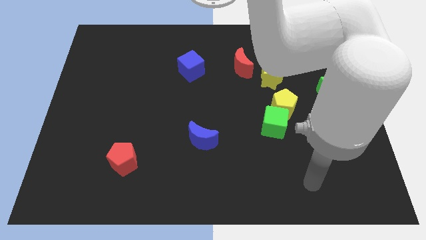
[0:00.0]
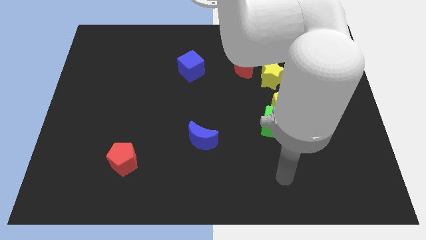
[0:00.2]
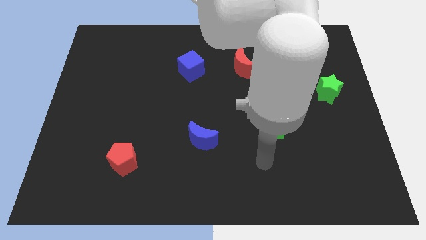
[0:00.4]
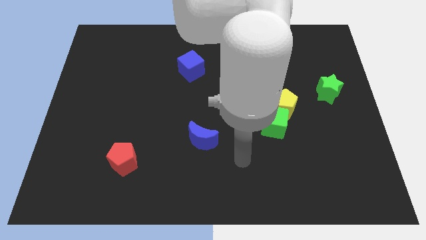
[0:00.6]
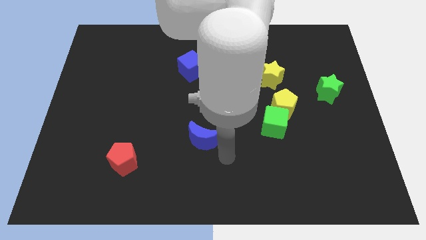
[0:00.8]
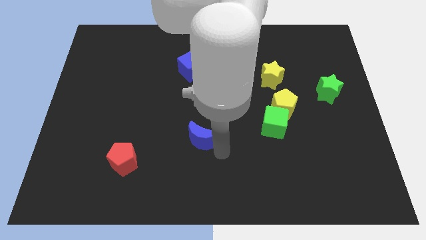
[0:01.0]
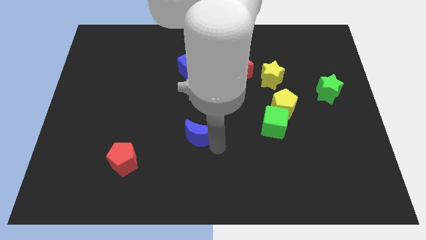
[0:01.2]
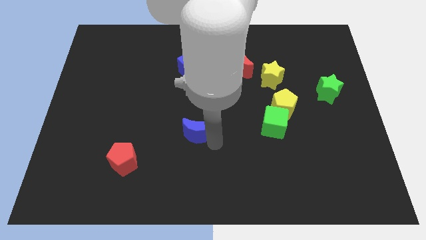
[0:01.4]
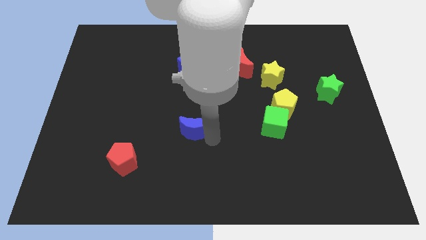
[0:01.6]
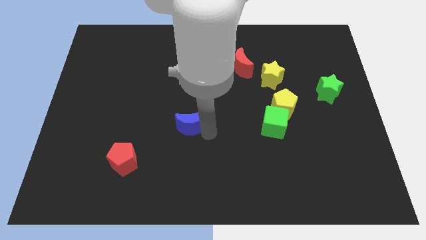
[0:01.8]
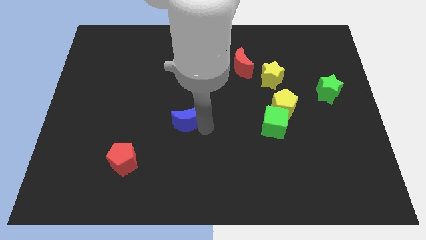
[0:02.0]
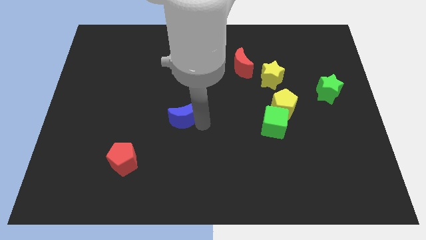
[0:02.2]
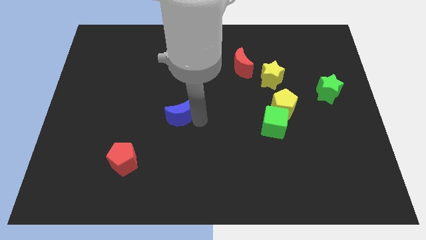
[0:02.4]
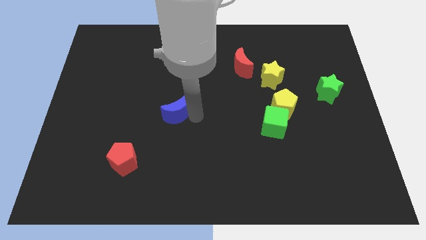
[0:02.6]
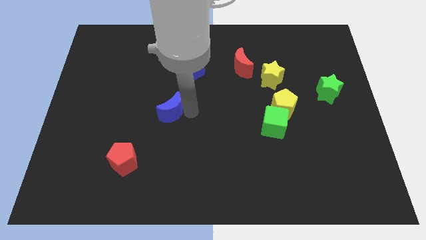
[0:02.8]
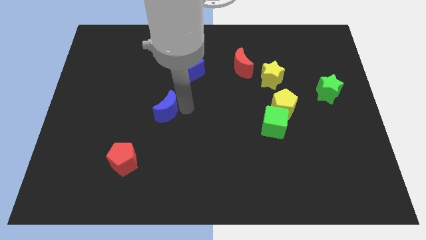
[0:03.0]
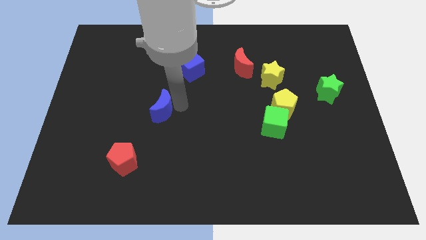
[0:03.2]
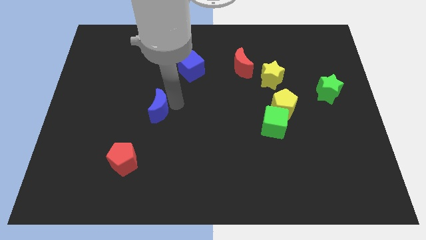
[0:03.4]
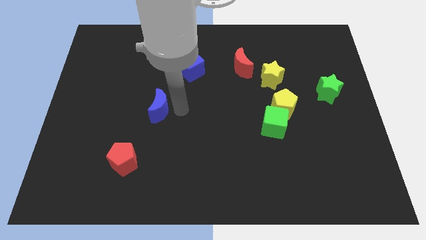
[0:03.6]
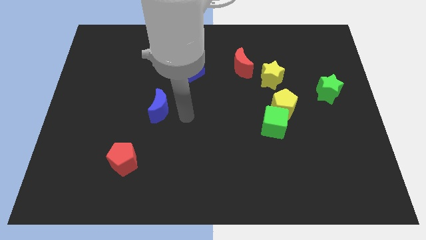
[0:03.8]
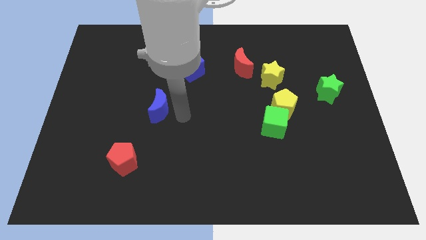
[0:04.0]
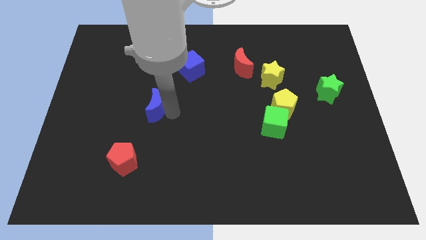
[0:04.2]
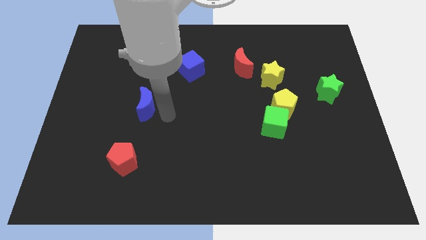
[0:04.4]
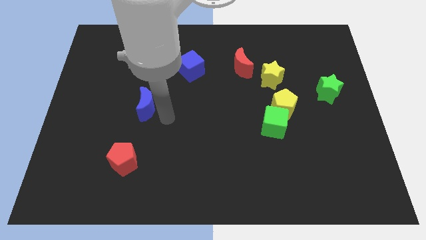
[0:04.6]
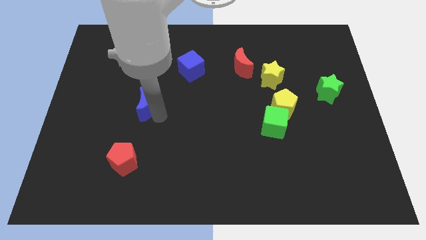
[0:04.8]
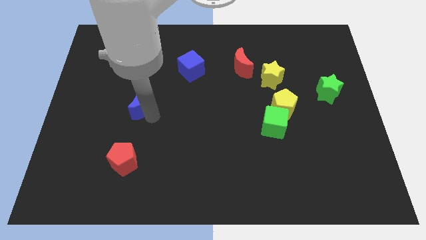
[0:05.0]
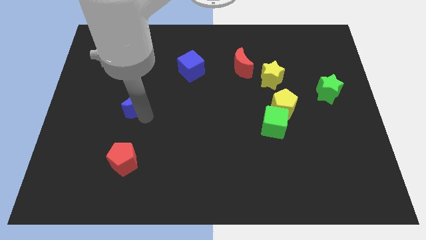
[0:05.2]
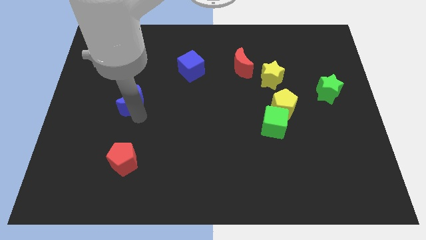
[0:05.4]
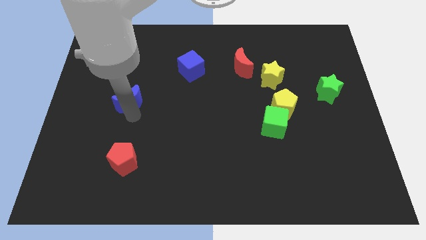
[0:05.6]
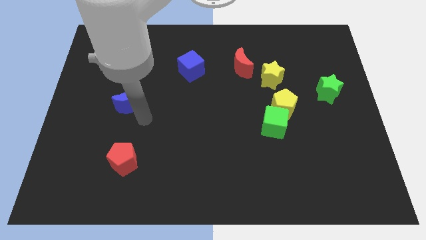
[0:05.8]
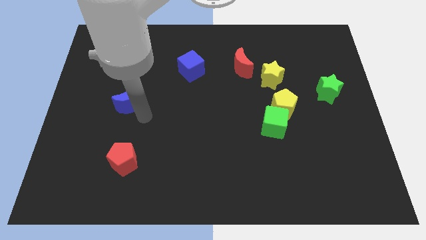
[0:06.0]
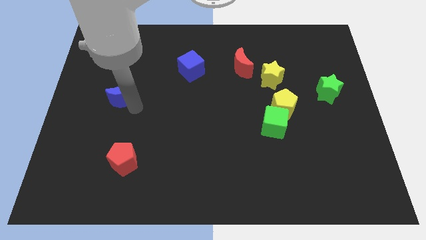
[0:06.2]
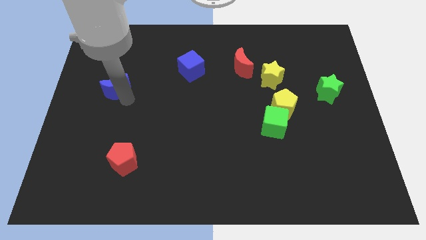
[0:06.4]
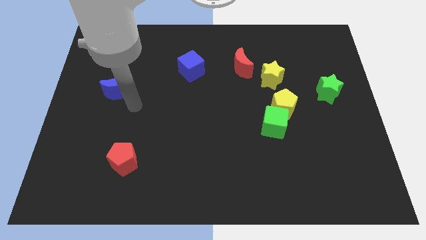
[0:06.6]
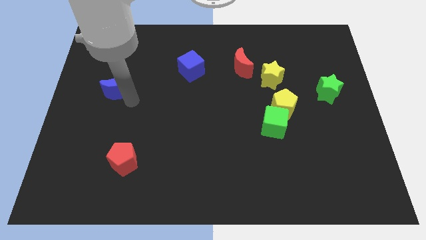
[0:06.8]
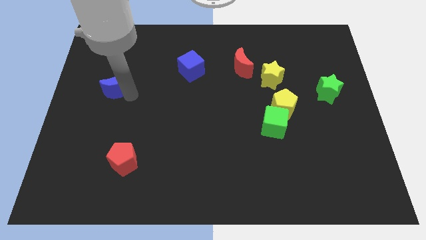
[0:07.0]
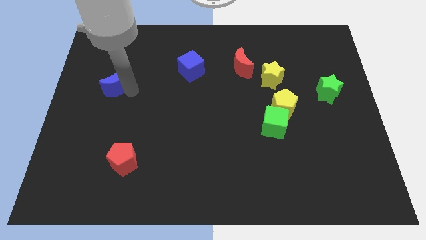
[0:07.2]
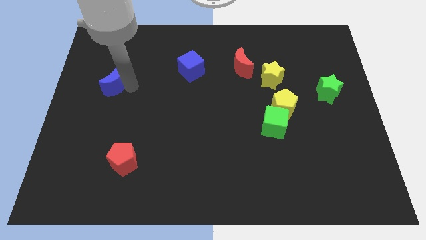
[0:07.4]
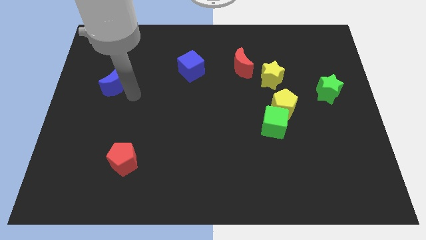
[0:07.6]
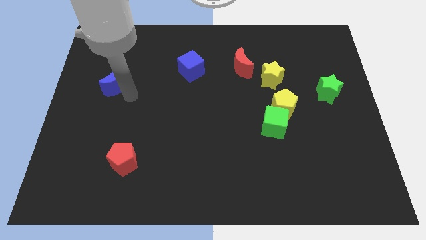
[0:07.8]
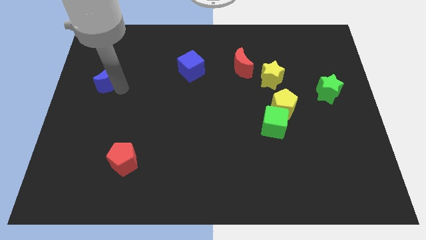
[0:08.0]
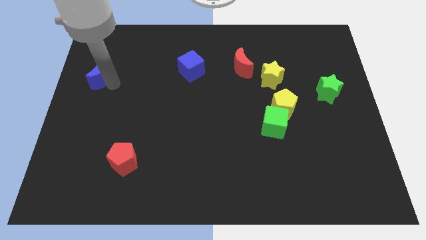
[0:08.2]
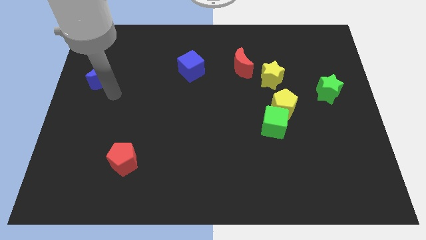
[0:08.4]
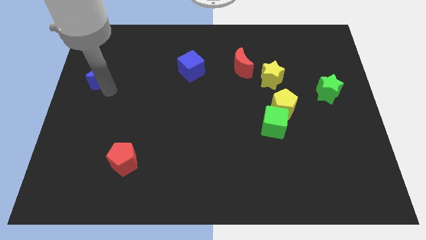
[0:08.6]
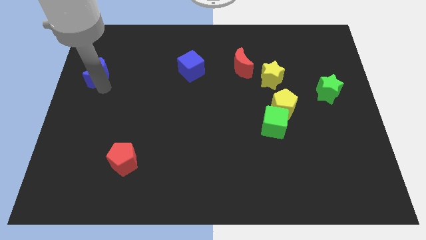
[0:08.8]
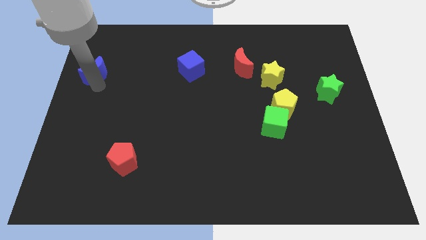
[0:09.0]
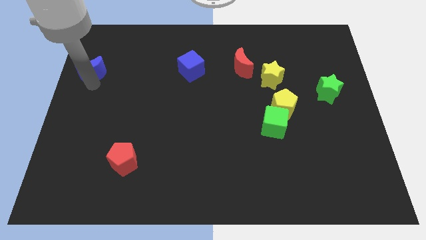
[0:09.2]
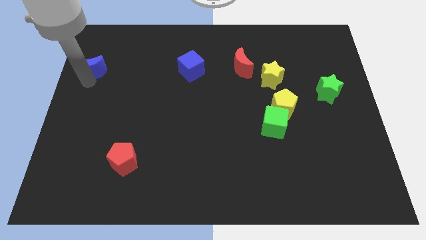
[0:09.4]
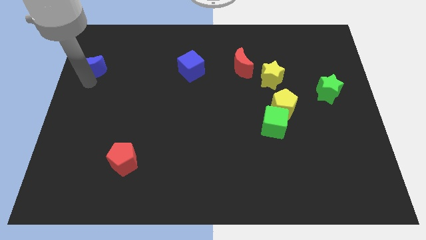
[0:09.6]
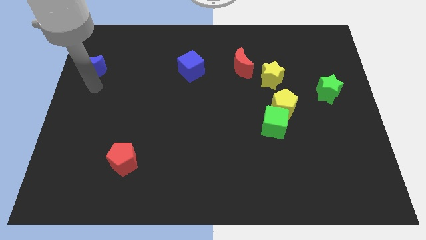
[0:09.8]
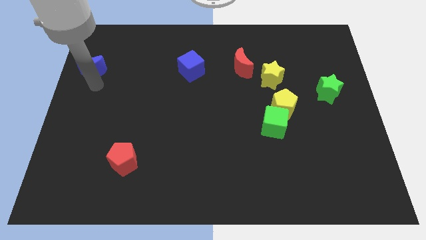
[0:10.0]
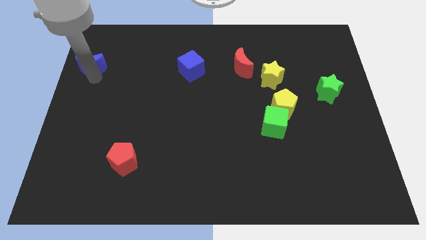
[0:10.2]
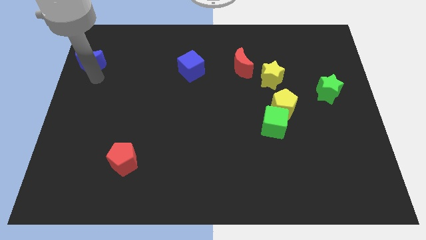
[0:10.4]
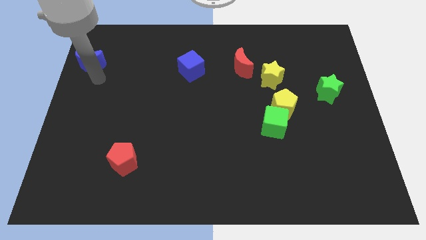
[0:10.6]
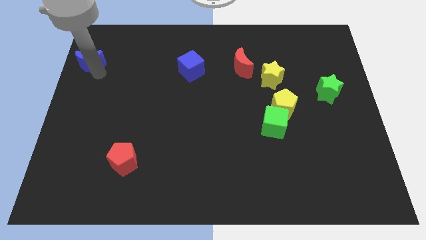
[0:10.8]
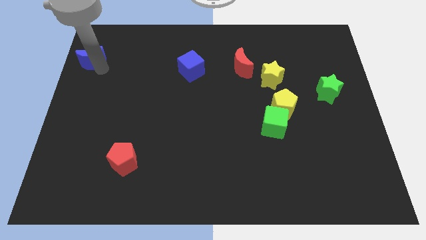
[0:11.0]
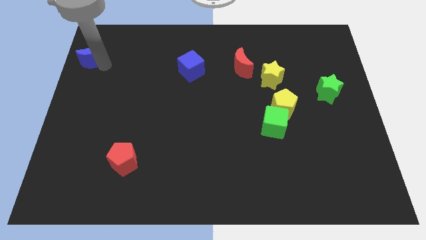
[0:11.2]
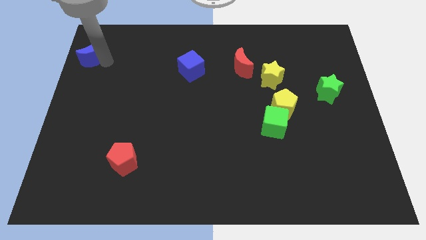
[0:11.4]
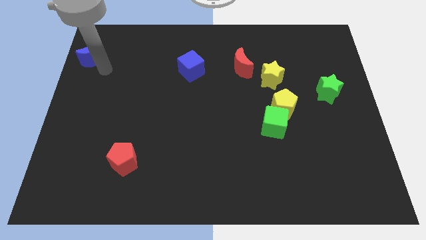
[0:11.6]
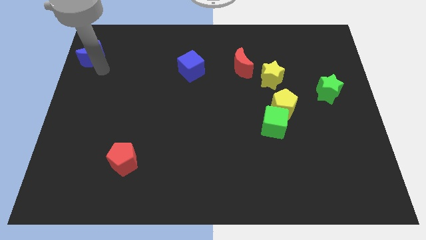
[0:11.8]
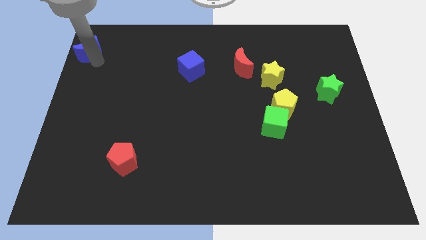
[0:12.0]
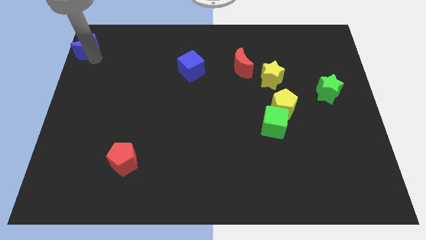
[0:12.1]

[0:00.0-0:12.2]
move the blue moon to the top left corner
